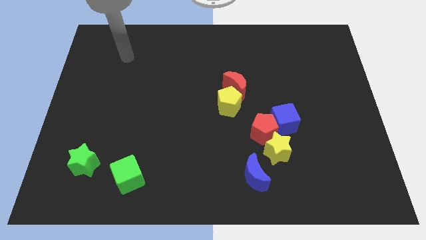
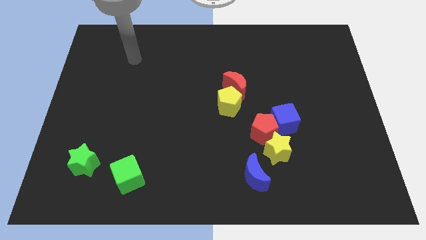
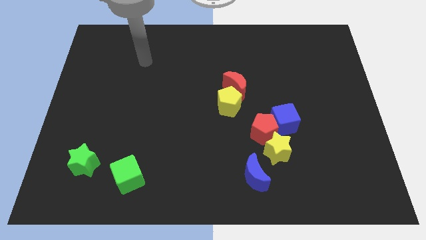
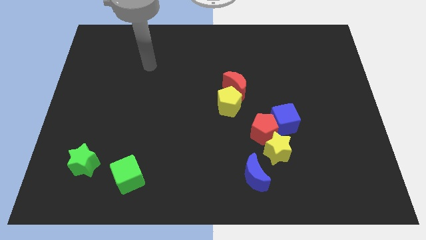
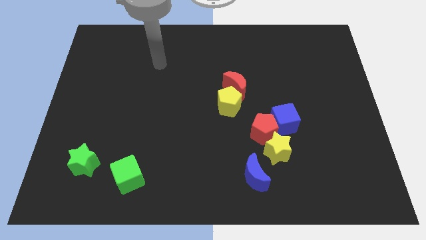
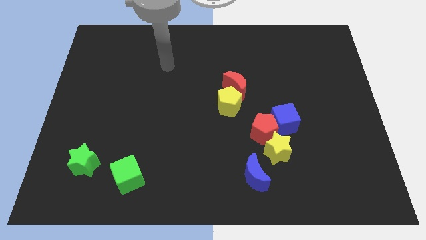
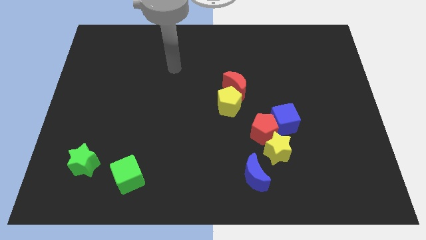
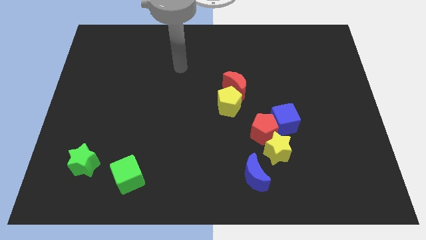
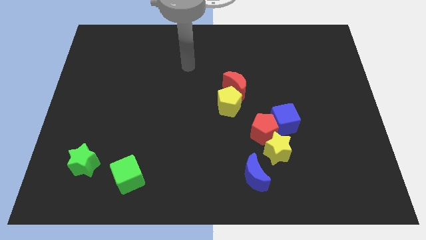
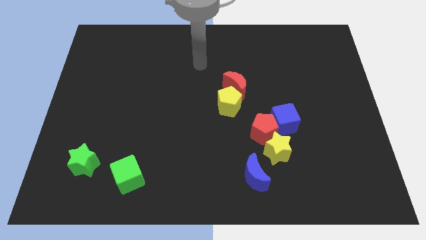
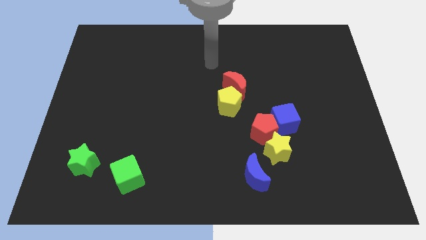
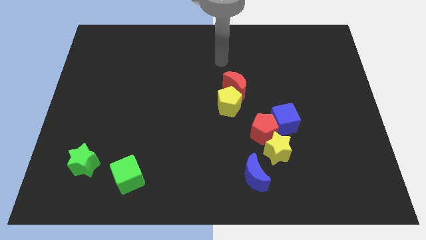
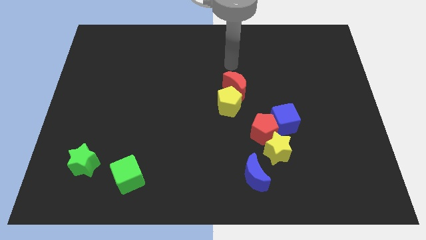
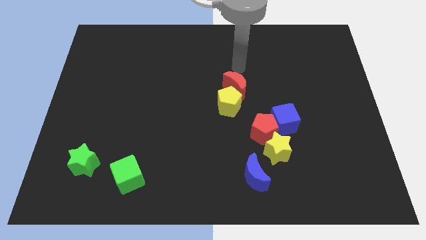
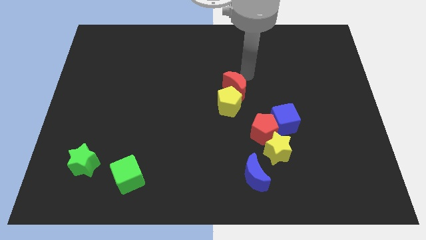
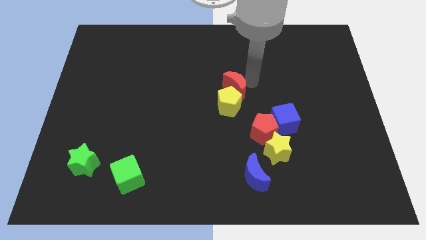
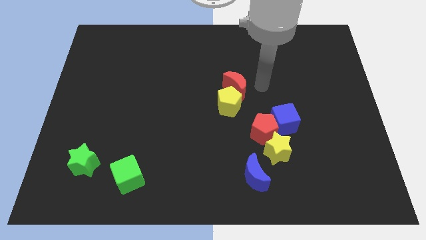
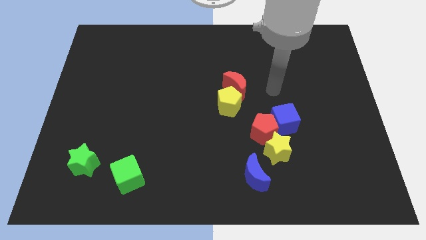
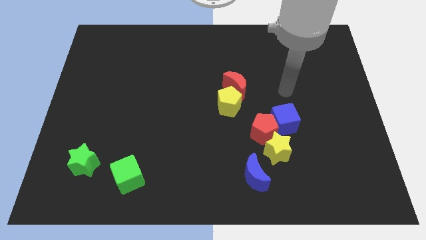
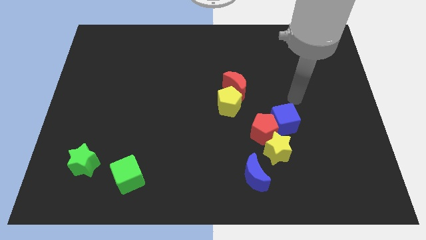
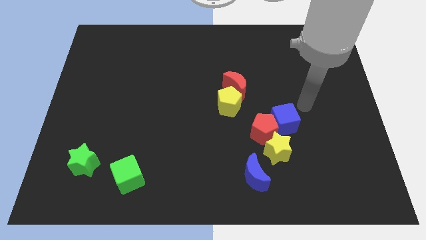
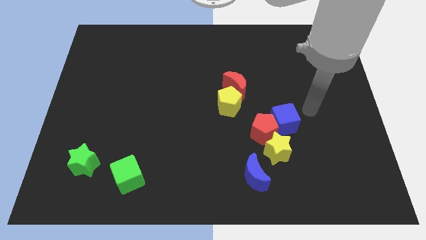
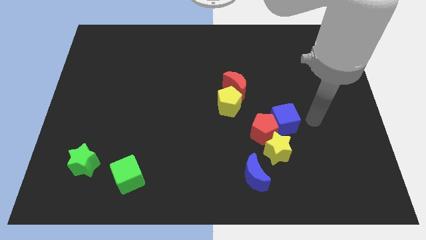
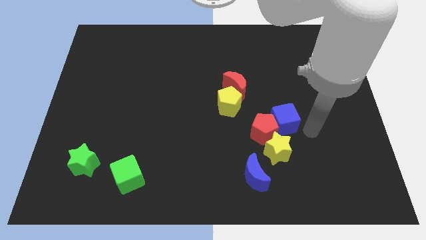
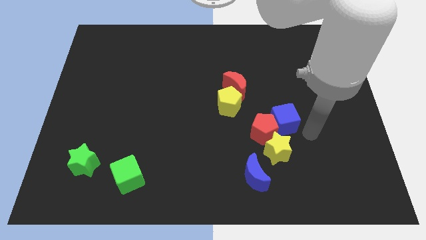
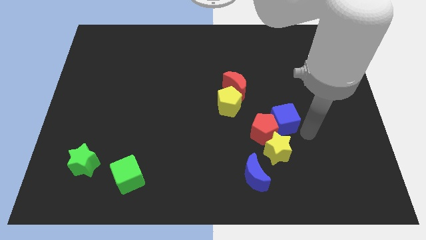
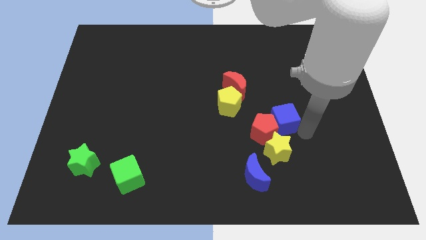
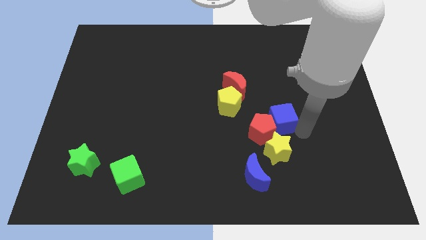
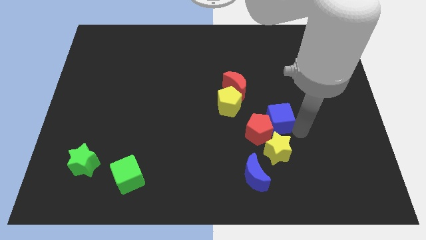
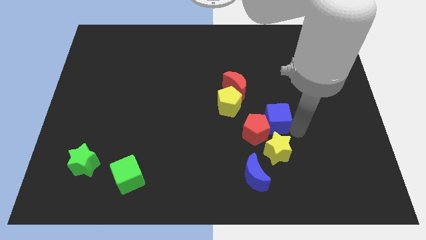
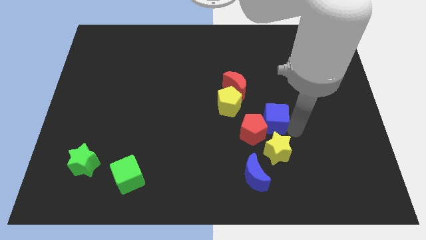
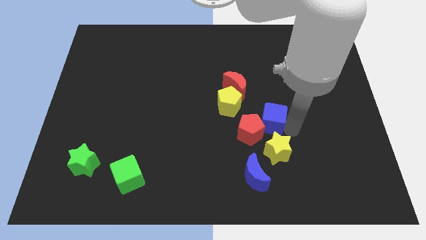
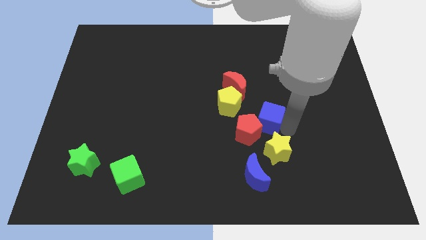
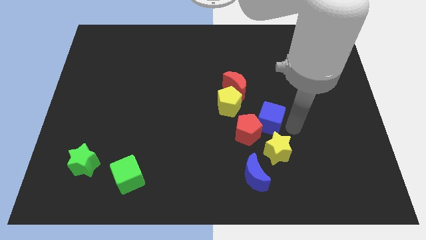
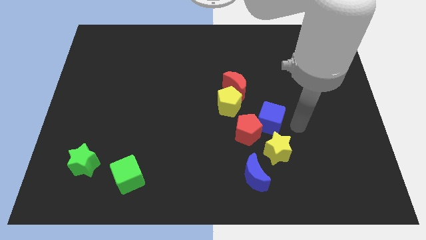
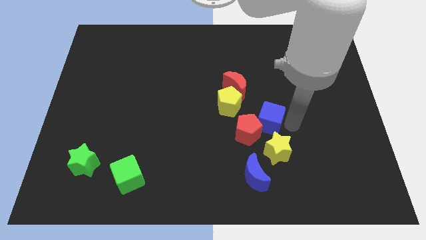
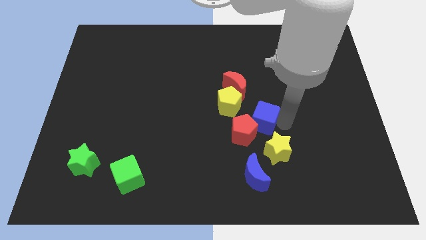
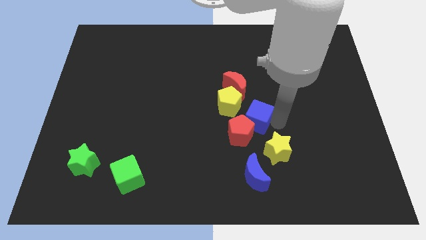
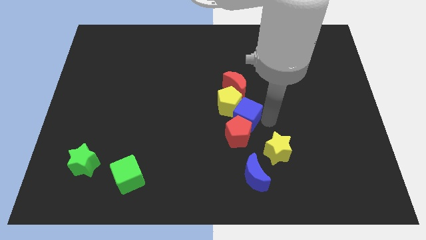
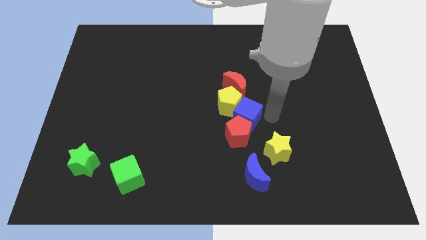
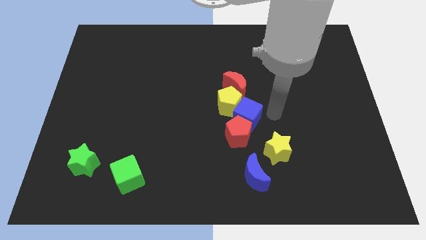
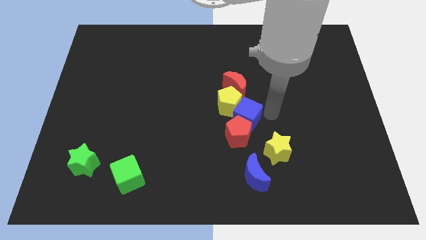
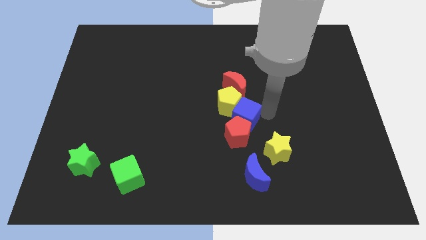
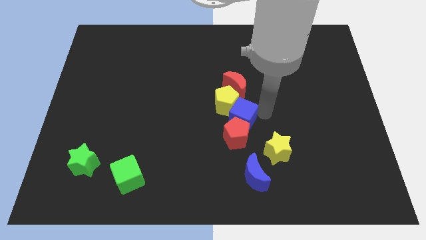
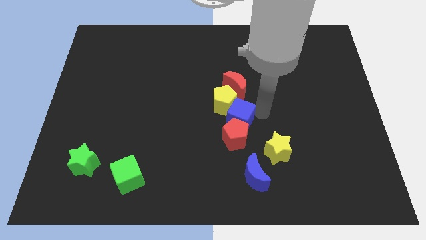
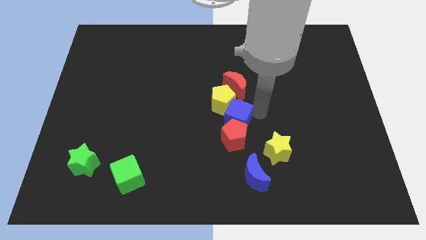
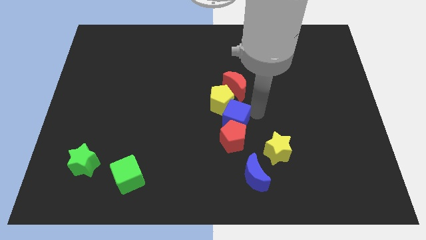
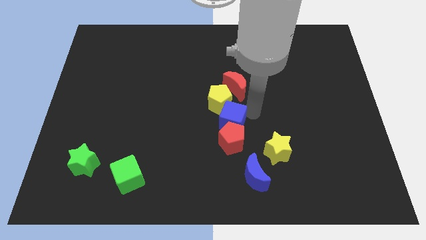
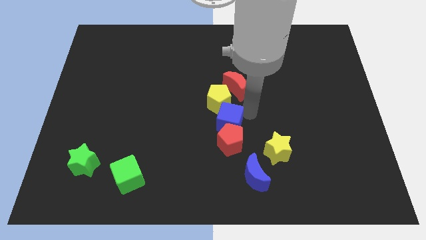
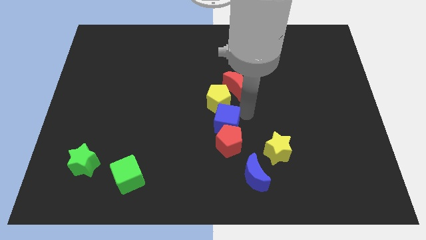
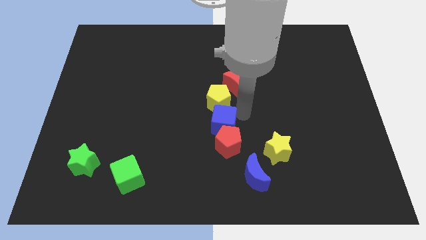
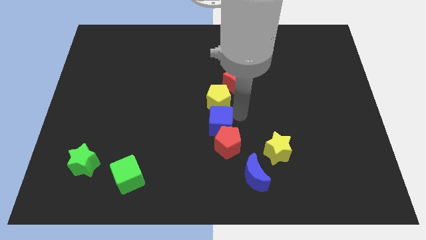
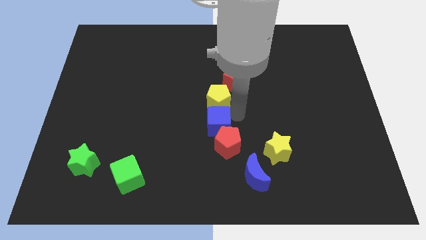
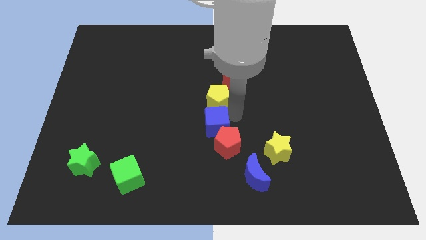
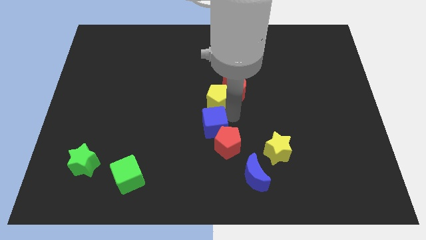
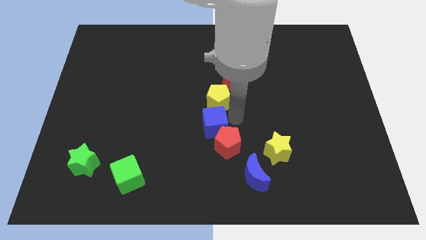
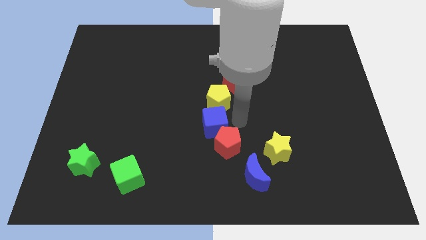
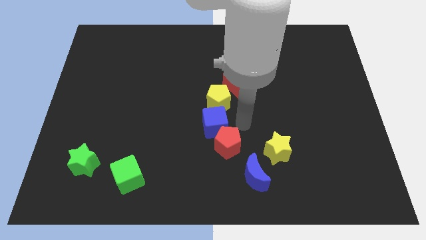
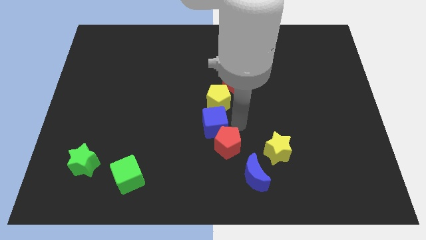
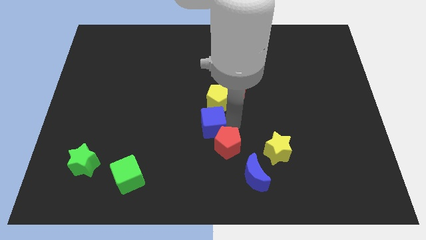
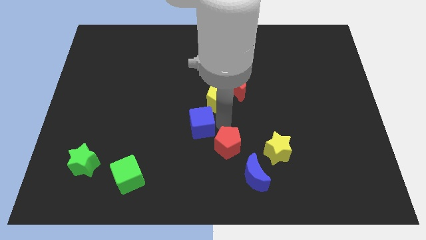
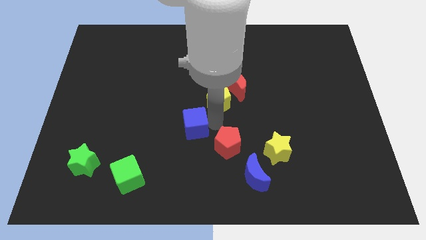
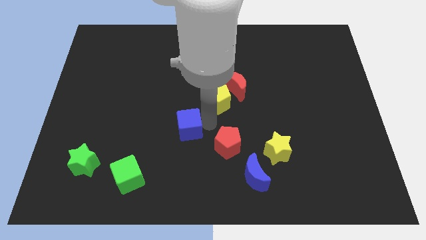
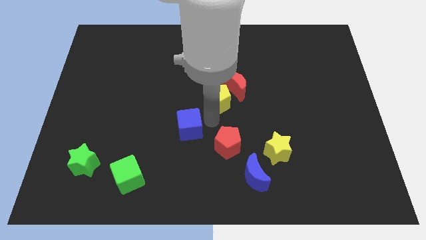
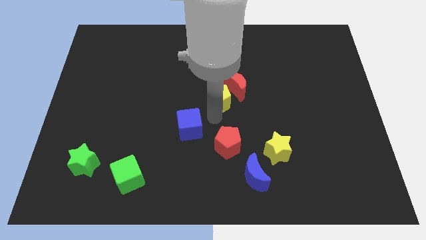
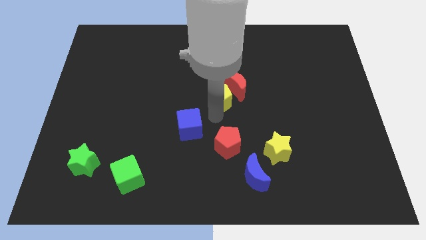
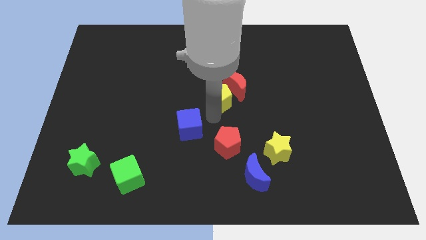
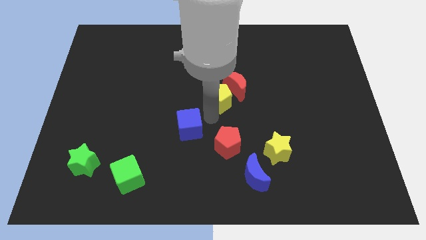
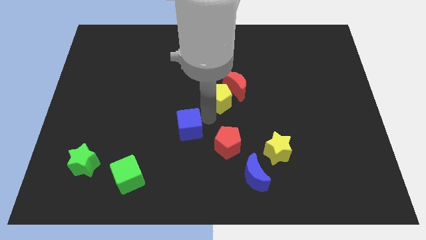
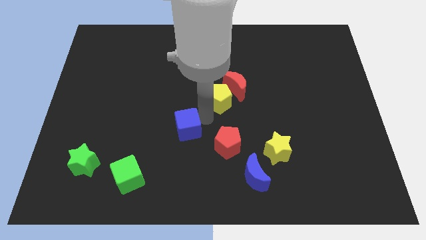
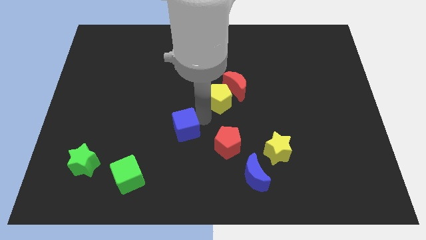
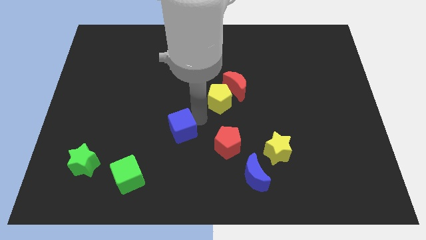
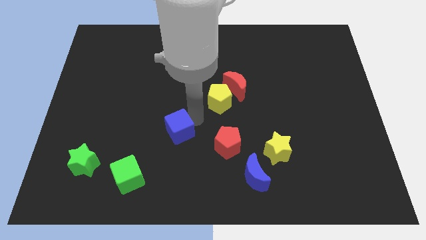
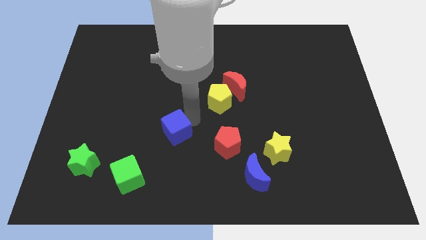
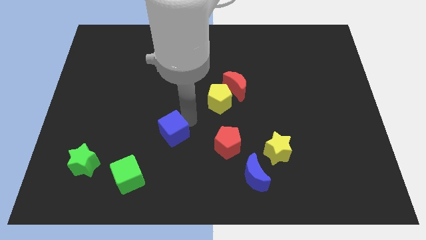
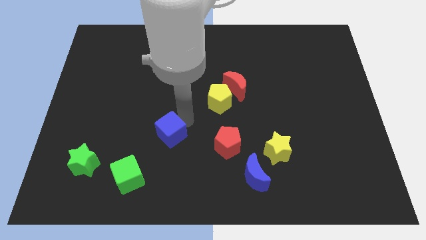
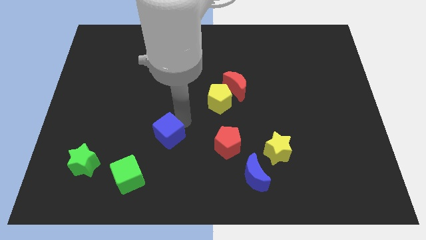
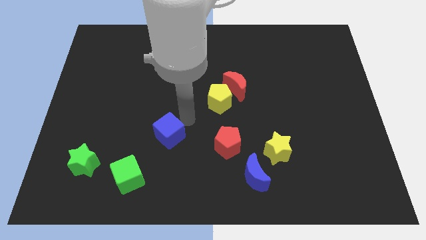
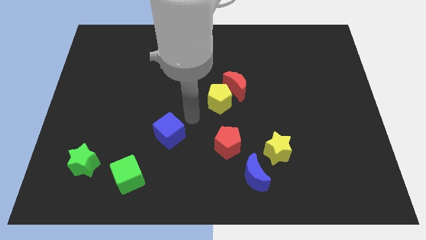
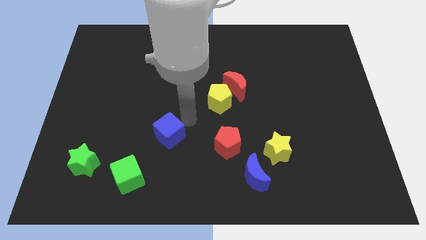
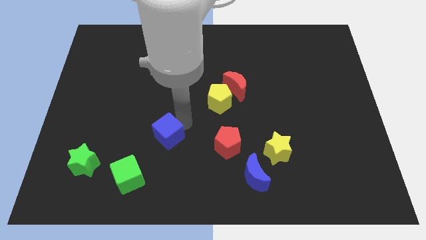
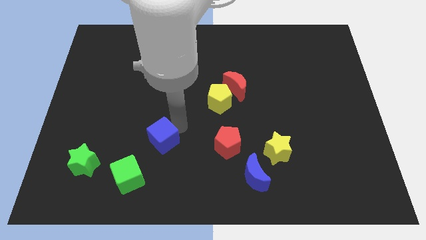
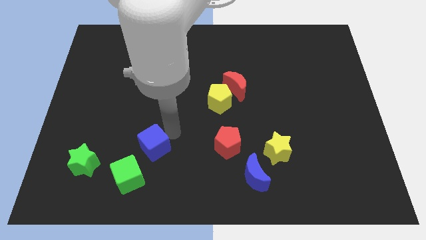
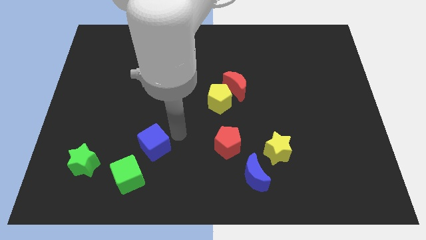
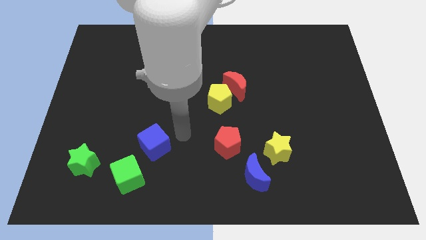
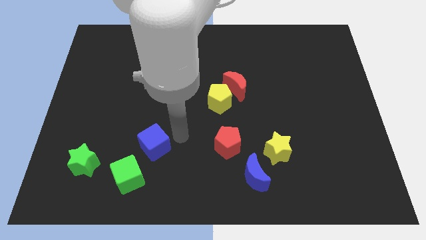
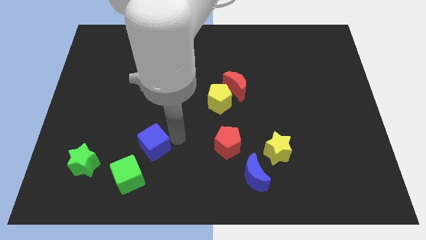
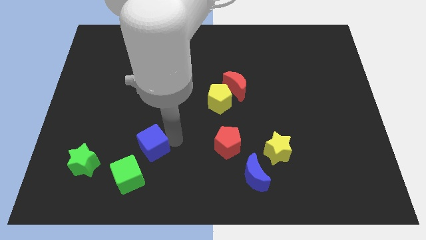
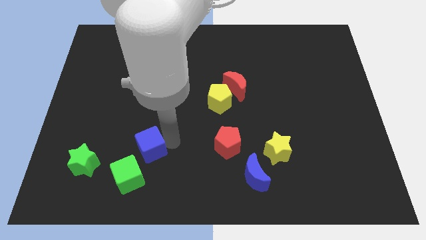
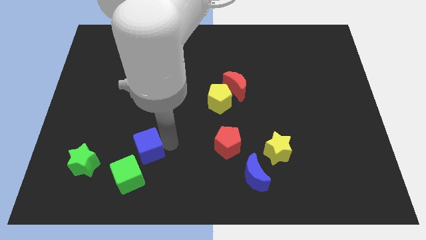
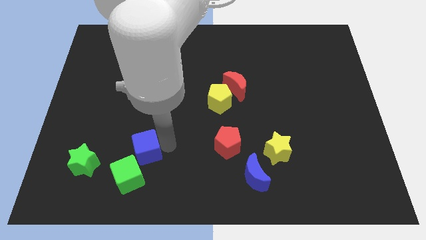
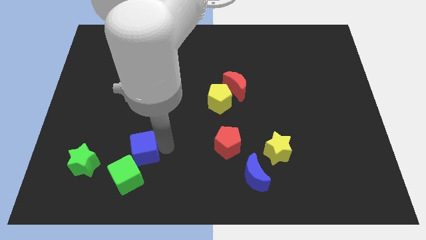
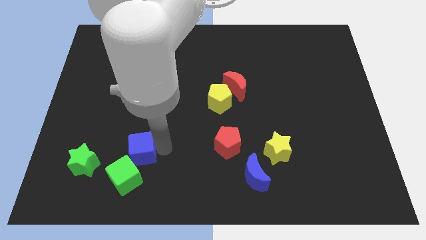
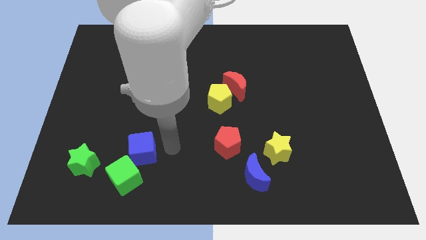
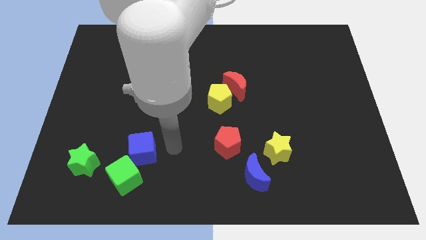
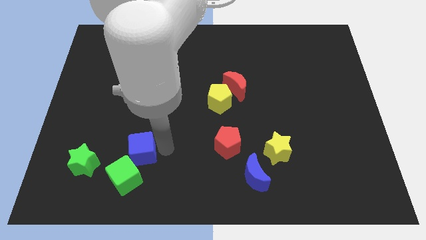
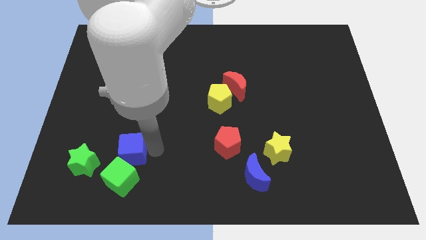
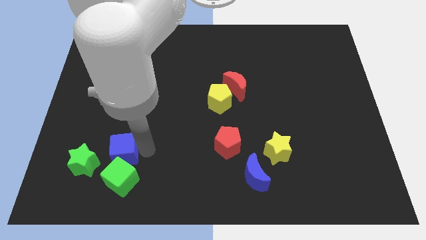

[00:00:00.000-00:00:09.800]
push the blue cube to the top left of the green cube
